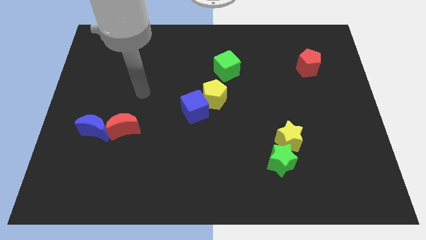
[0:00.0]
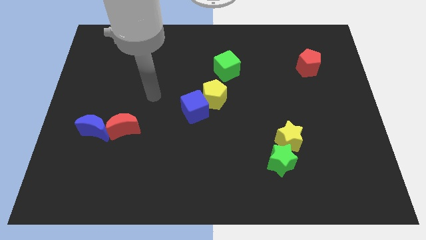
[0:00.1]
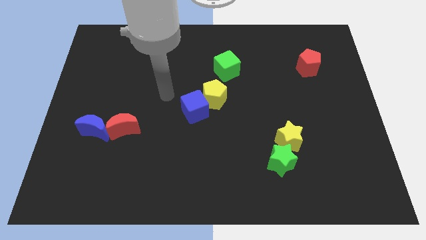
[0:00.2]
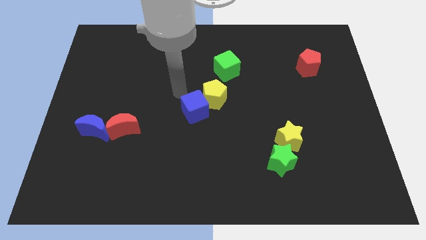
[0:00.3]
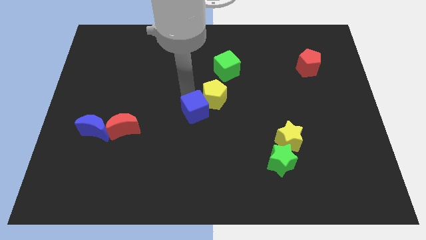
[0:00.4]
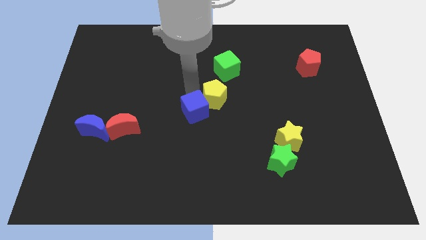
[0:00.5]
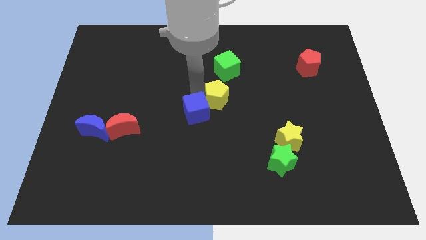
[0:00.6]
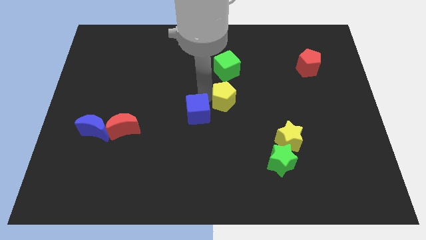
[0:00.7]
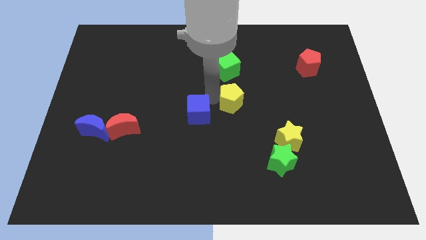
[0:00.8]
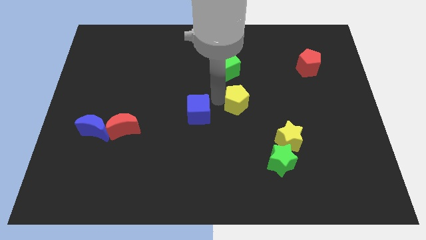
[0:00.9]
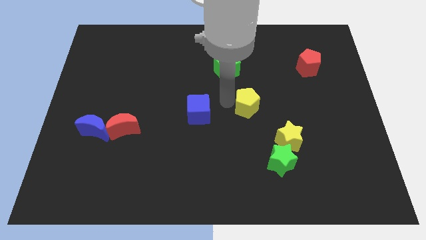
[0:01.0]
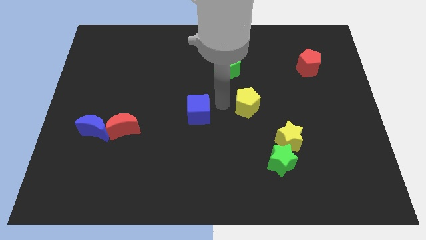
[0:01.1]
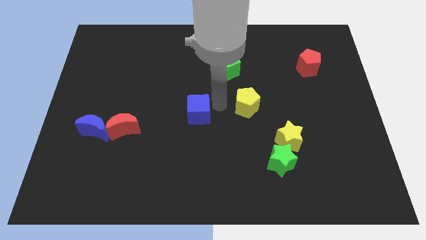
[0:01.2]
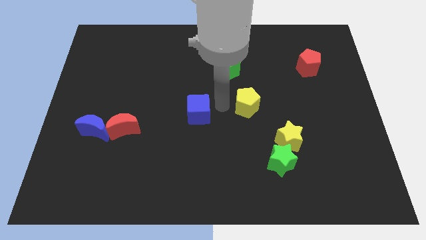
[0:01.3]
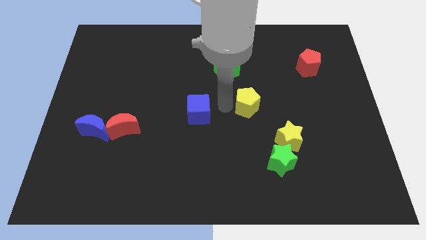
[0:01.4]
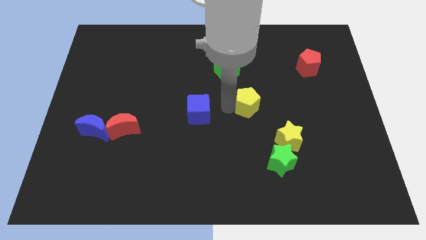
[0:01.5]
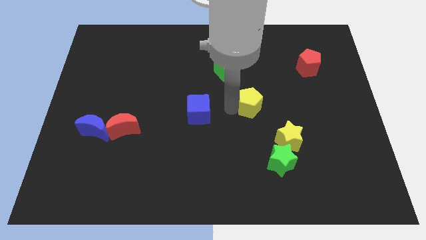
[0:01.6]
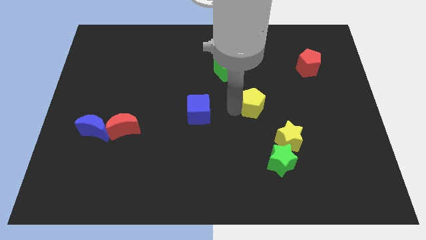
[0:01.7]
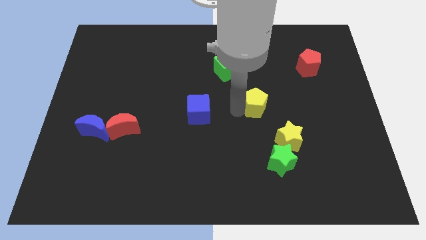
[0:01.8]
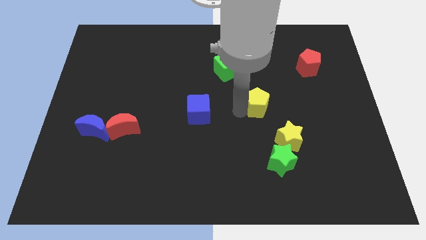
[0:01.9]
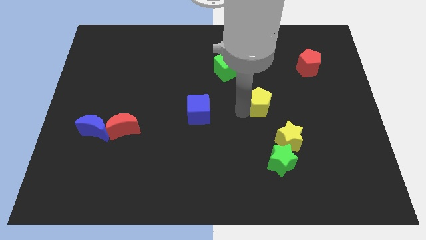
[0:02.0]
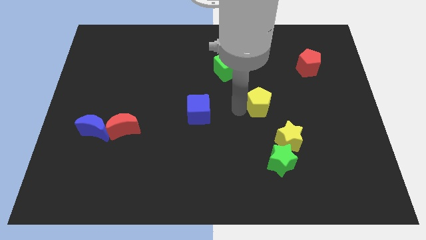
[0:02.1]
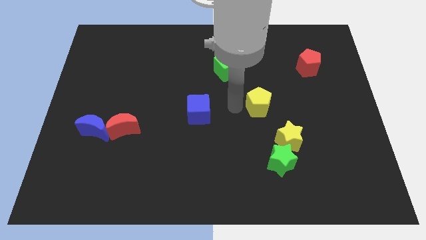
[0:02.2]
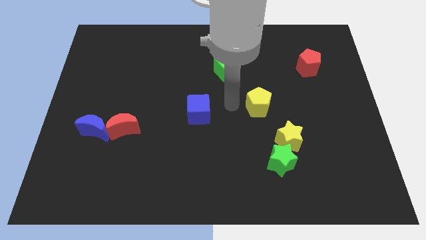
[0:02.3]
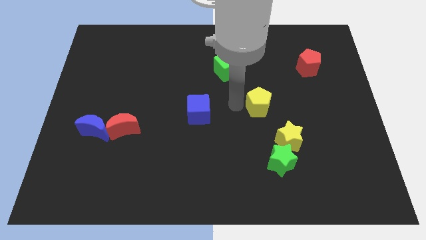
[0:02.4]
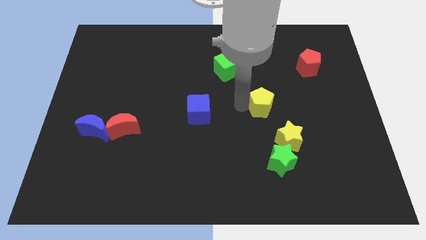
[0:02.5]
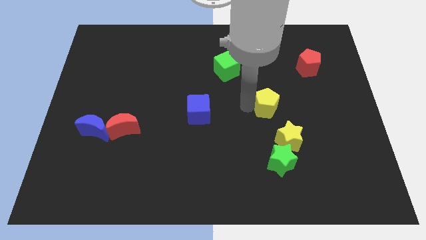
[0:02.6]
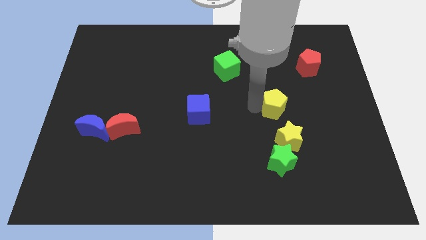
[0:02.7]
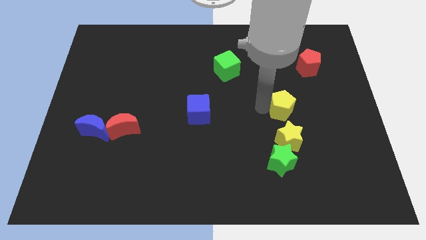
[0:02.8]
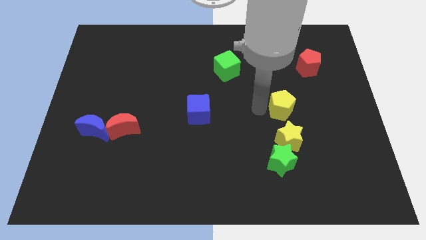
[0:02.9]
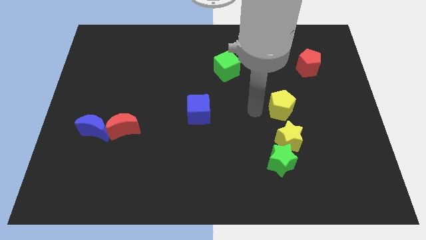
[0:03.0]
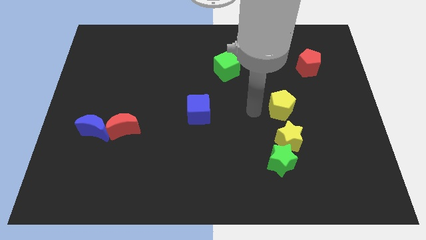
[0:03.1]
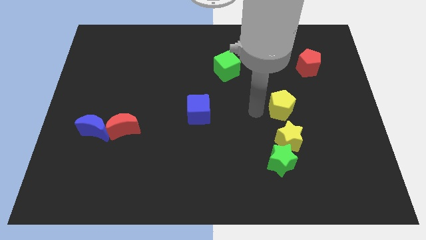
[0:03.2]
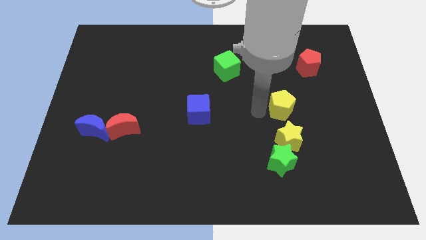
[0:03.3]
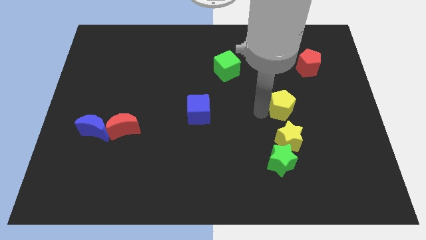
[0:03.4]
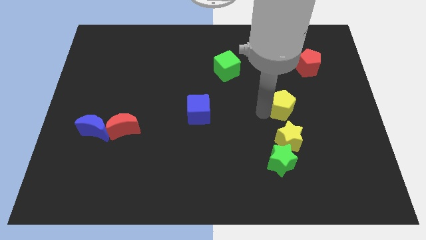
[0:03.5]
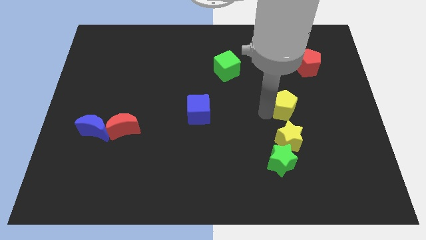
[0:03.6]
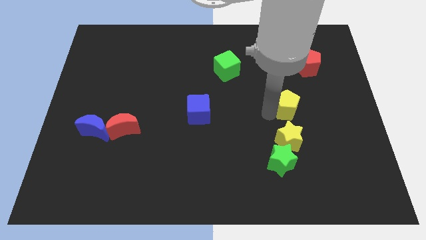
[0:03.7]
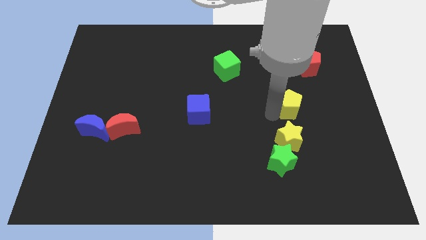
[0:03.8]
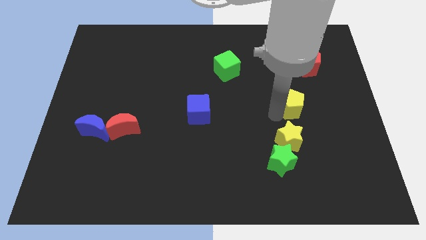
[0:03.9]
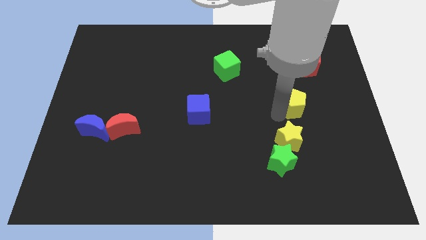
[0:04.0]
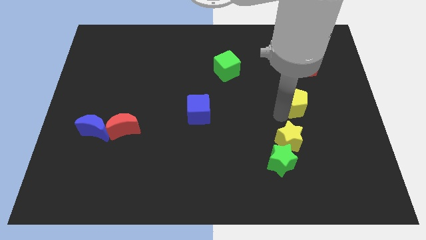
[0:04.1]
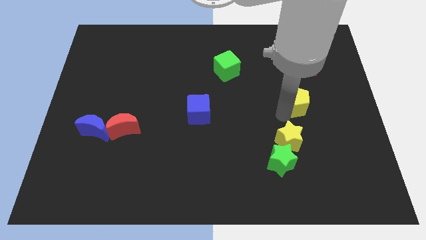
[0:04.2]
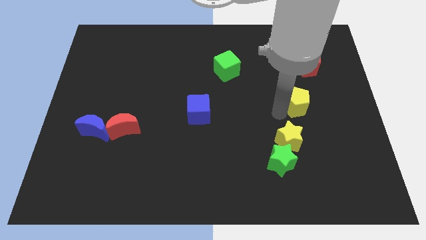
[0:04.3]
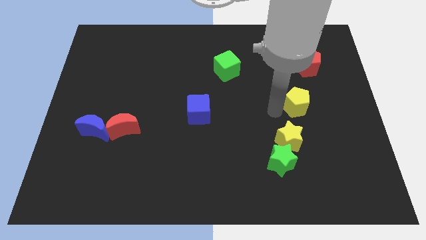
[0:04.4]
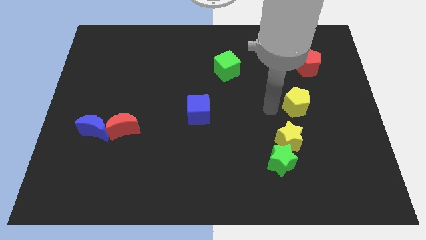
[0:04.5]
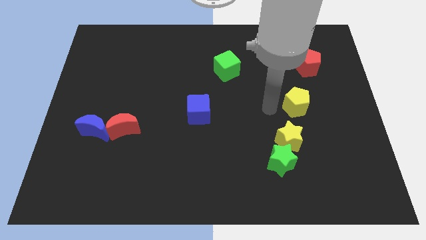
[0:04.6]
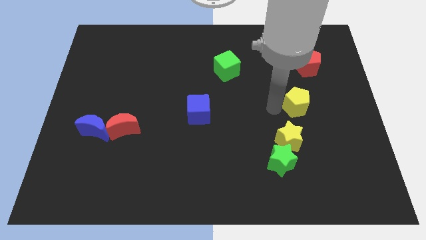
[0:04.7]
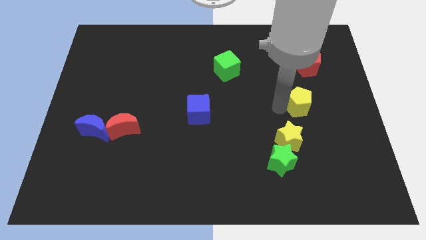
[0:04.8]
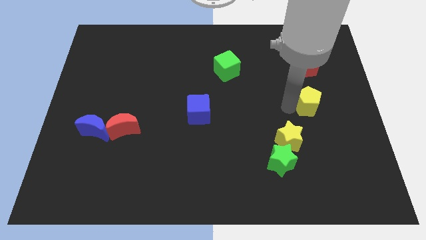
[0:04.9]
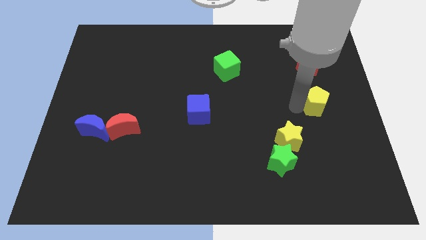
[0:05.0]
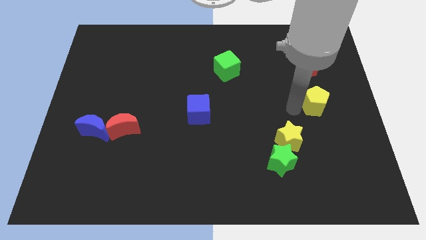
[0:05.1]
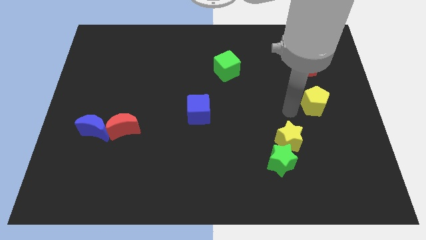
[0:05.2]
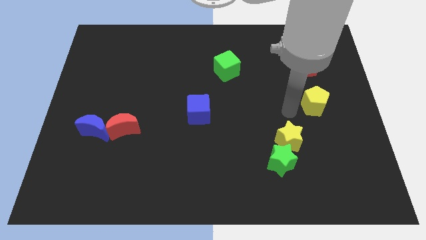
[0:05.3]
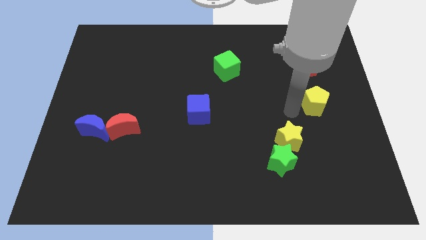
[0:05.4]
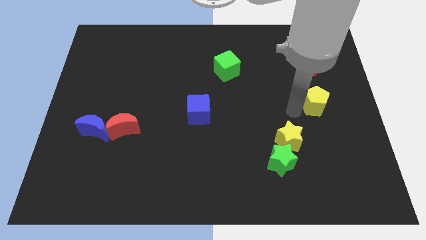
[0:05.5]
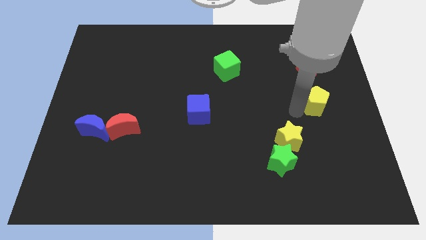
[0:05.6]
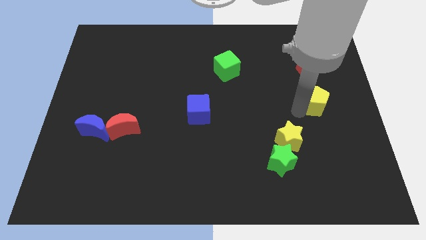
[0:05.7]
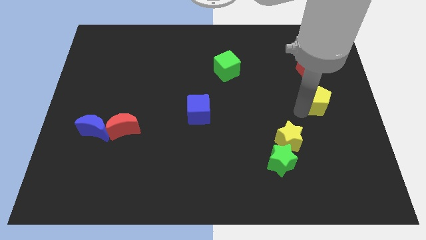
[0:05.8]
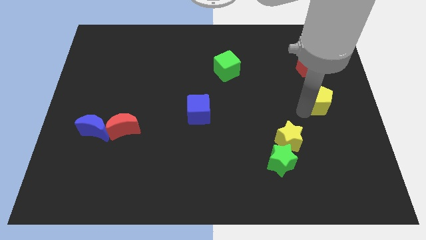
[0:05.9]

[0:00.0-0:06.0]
push the yellow pentagon to the right side

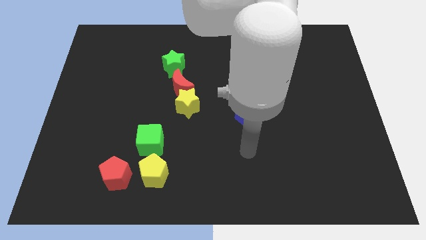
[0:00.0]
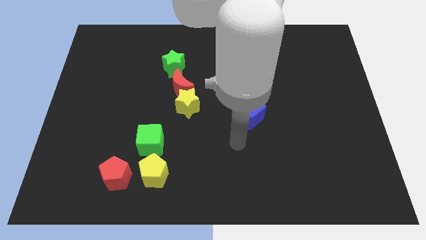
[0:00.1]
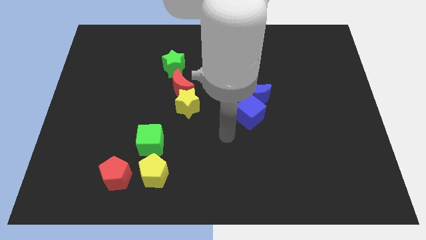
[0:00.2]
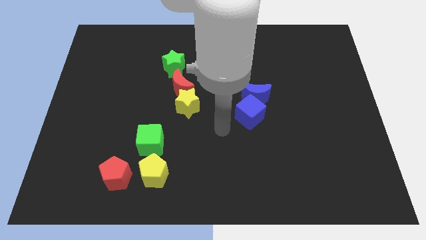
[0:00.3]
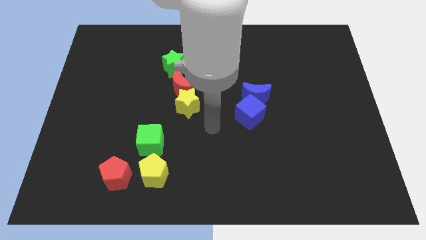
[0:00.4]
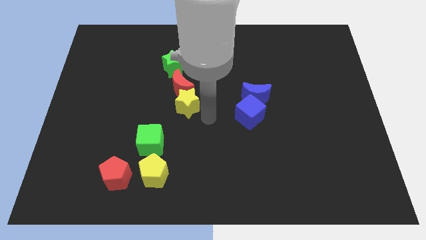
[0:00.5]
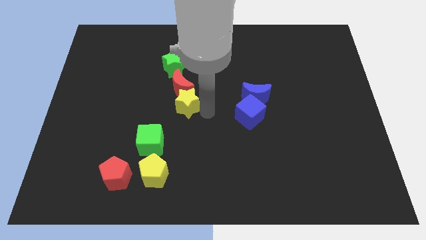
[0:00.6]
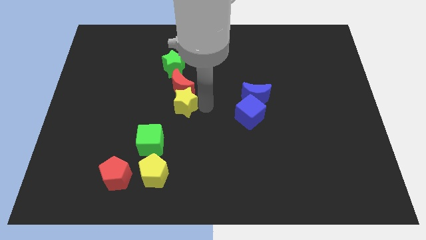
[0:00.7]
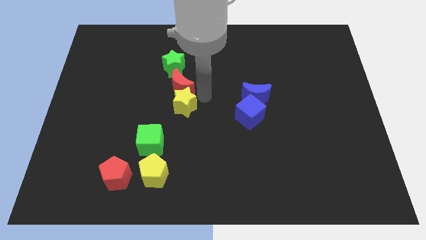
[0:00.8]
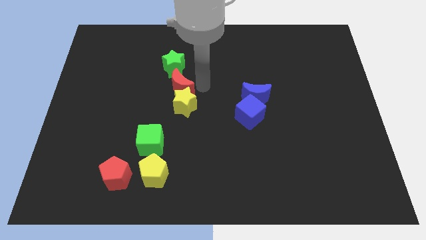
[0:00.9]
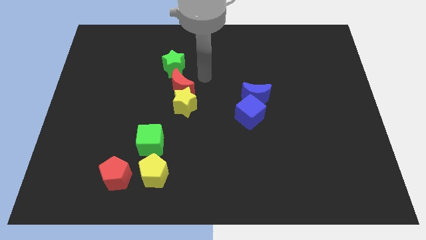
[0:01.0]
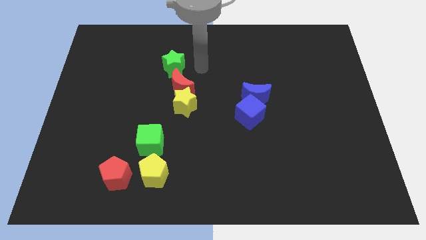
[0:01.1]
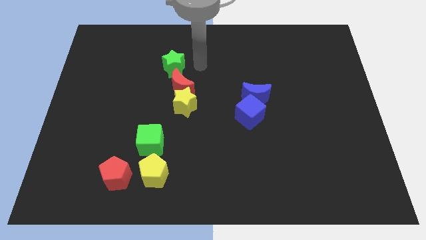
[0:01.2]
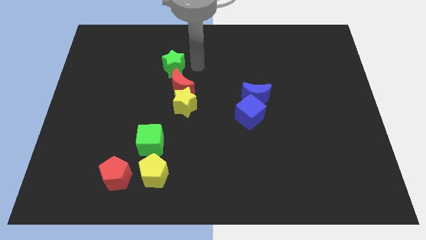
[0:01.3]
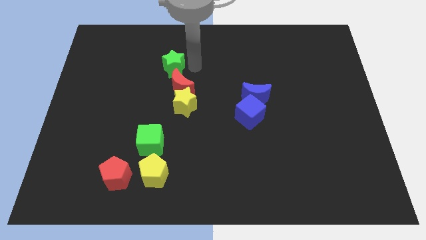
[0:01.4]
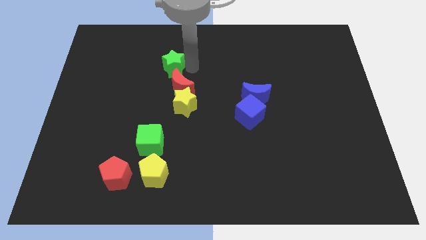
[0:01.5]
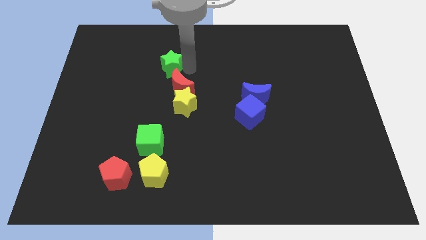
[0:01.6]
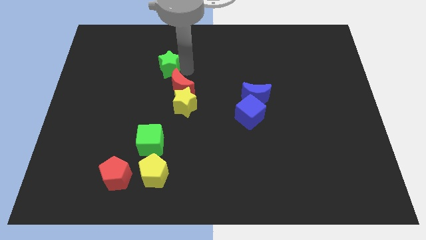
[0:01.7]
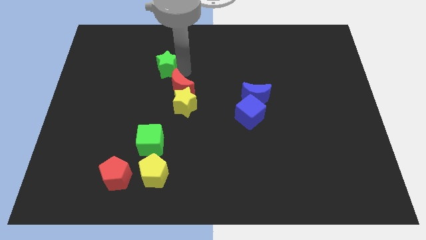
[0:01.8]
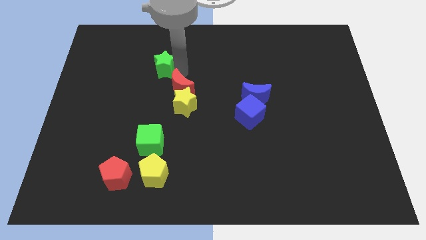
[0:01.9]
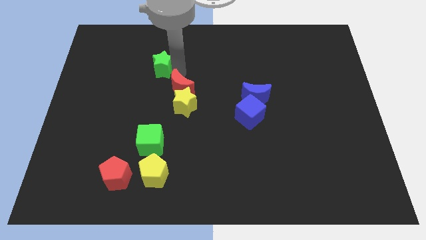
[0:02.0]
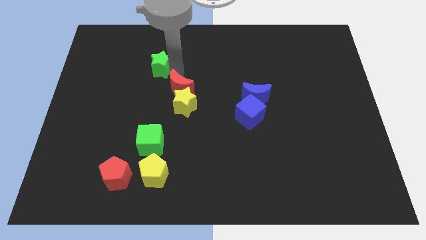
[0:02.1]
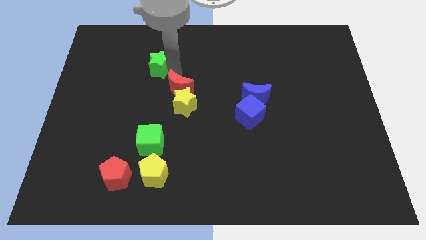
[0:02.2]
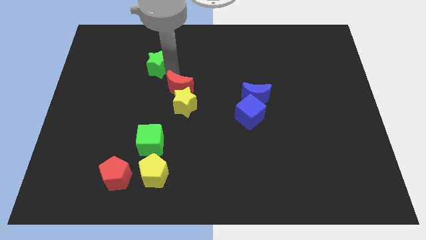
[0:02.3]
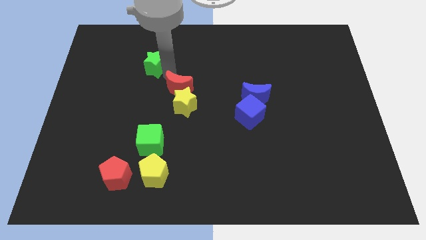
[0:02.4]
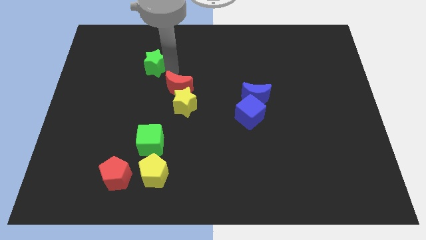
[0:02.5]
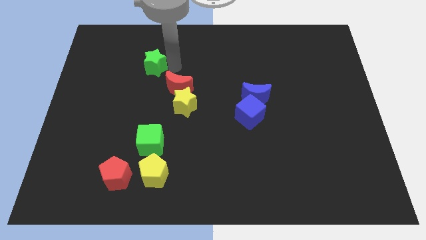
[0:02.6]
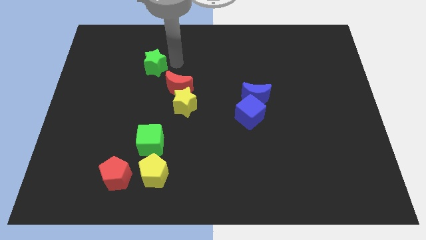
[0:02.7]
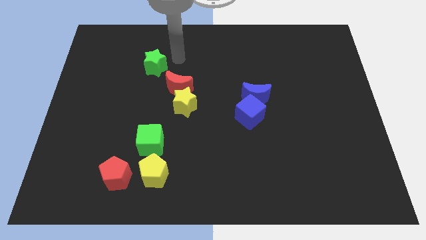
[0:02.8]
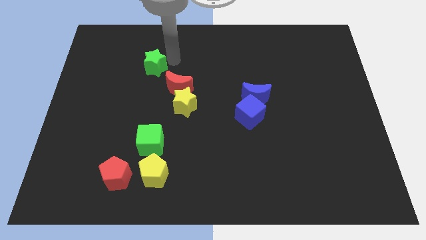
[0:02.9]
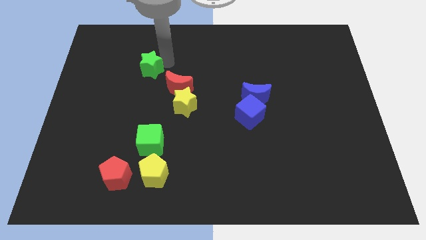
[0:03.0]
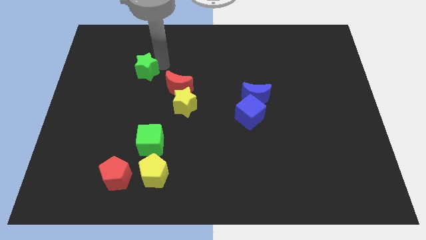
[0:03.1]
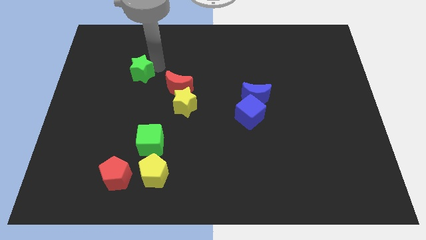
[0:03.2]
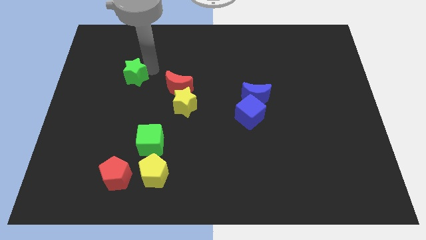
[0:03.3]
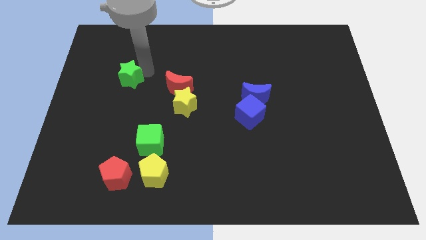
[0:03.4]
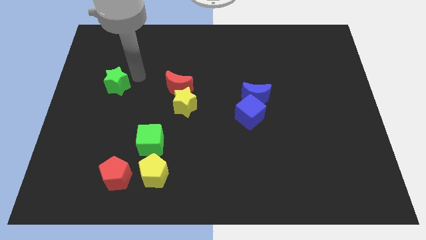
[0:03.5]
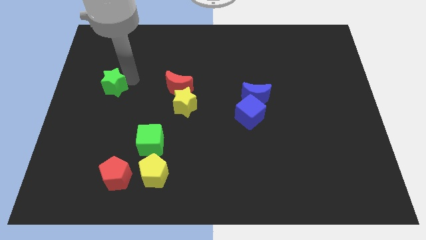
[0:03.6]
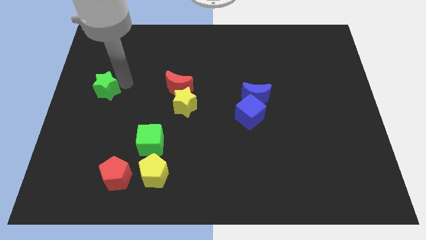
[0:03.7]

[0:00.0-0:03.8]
put the green star to the left side
